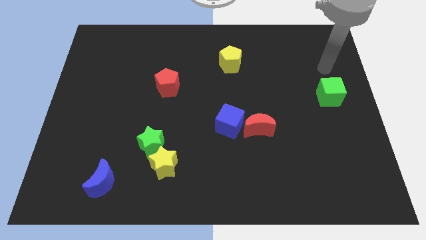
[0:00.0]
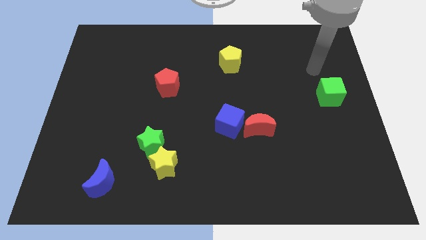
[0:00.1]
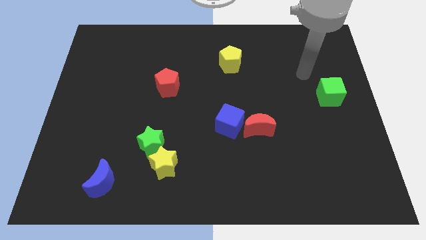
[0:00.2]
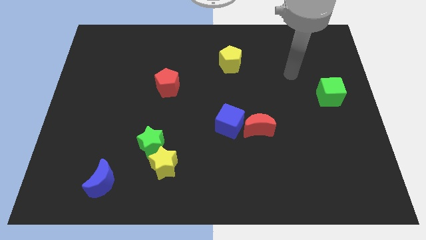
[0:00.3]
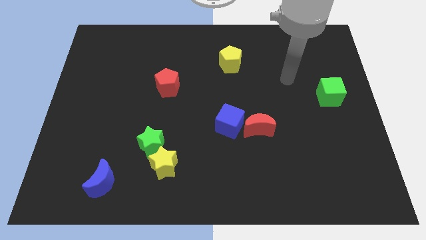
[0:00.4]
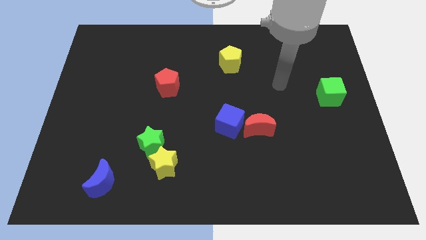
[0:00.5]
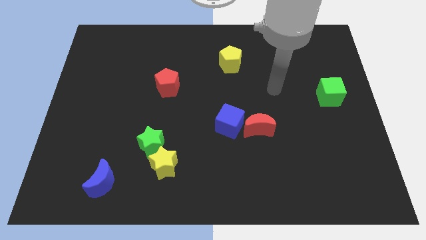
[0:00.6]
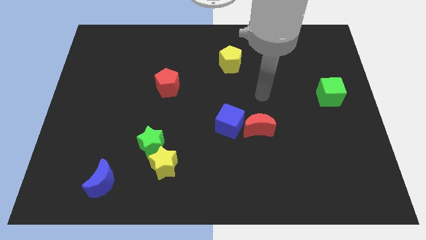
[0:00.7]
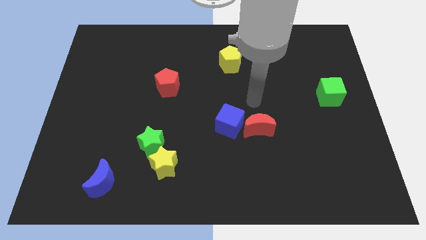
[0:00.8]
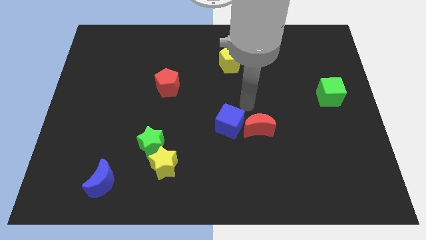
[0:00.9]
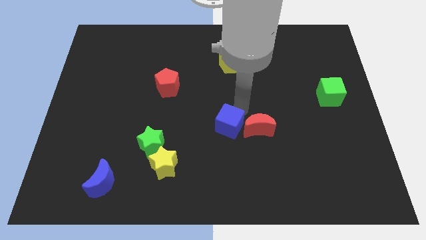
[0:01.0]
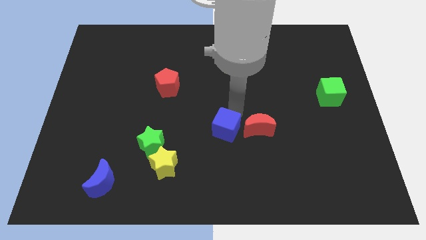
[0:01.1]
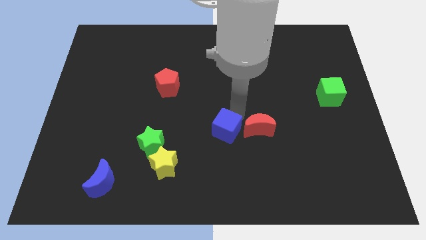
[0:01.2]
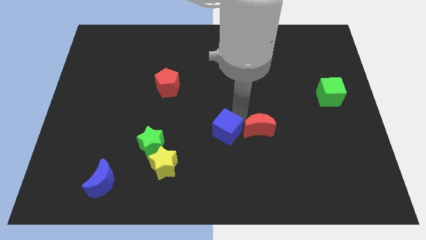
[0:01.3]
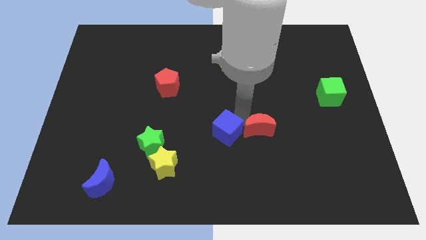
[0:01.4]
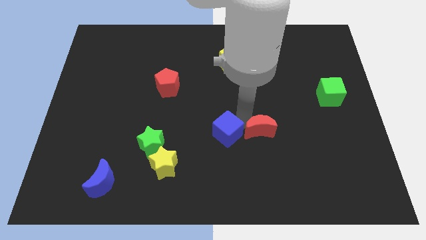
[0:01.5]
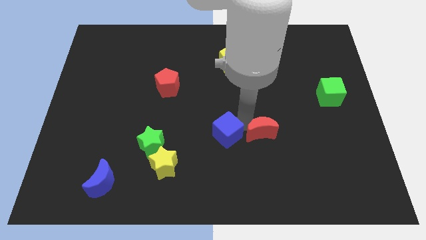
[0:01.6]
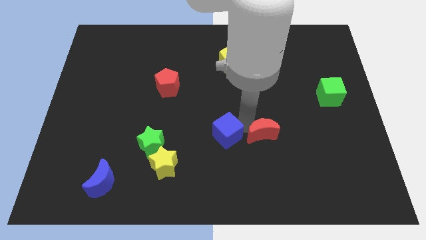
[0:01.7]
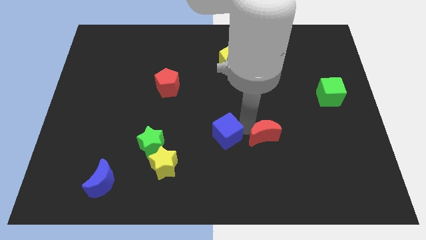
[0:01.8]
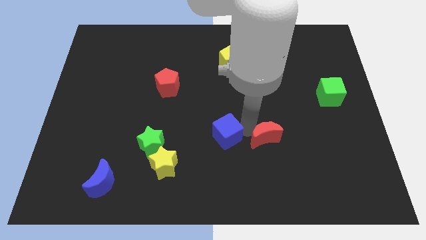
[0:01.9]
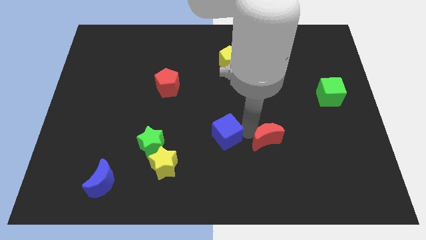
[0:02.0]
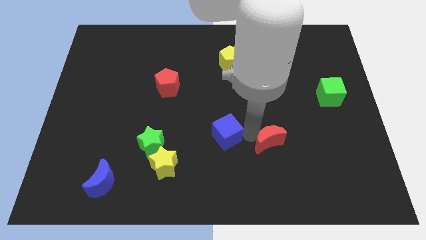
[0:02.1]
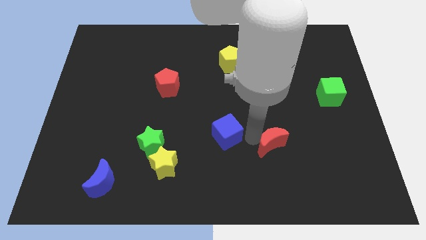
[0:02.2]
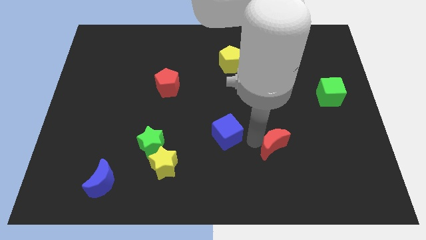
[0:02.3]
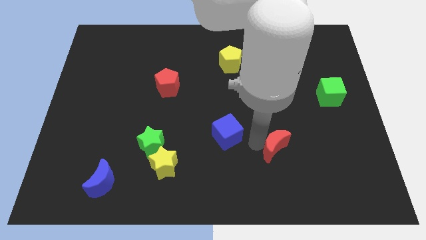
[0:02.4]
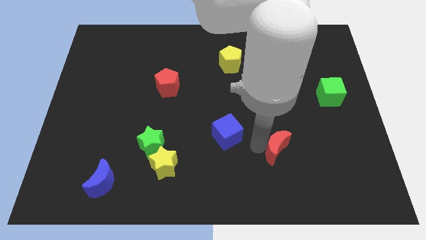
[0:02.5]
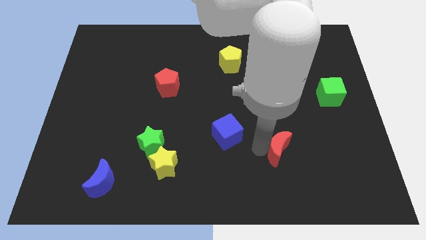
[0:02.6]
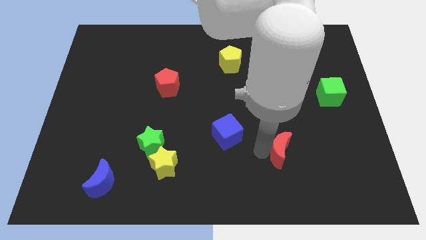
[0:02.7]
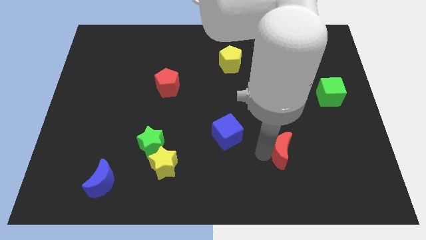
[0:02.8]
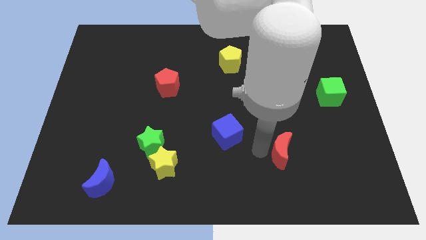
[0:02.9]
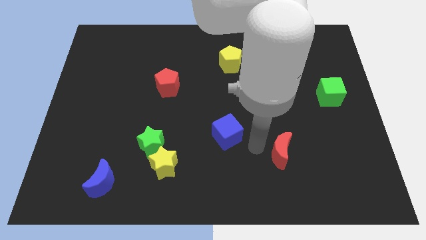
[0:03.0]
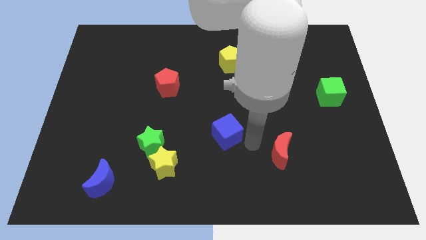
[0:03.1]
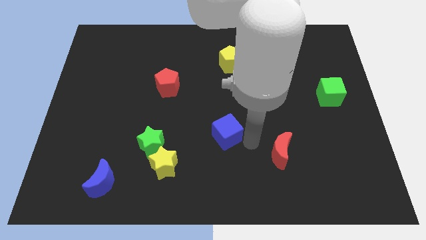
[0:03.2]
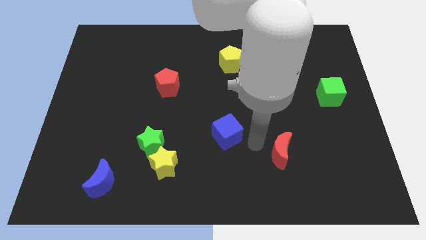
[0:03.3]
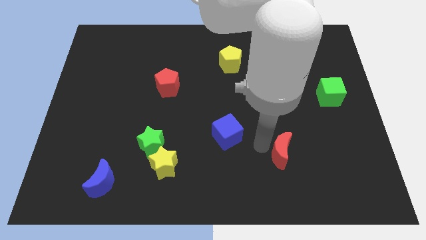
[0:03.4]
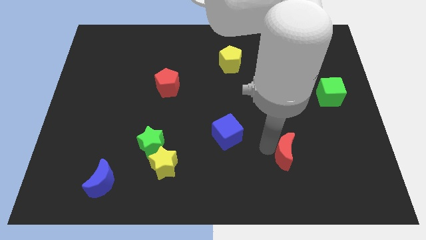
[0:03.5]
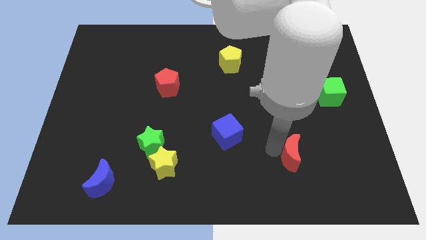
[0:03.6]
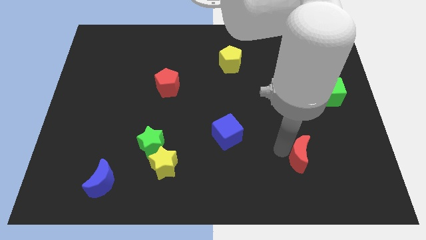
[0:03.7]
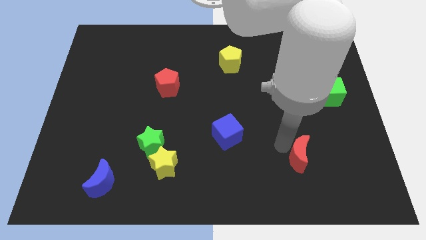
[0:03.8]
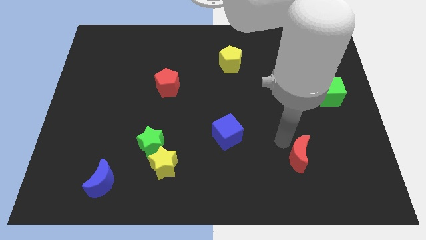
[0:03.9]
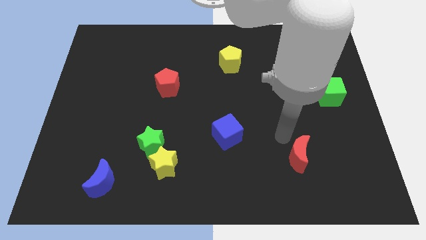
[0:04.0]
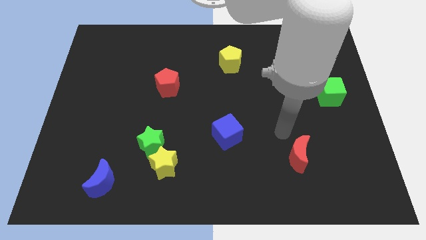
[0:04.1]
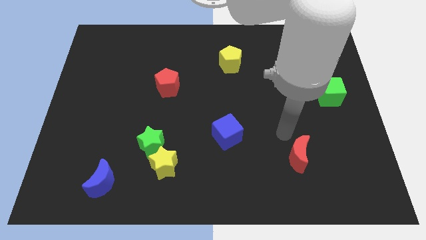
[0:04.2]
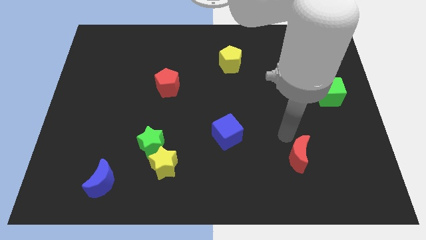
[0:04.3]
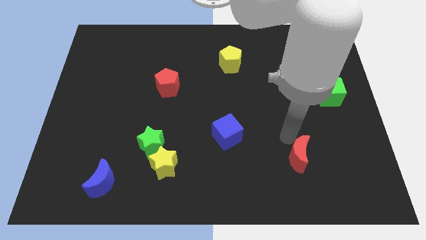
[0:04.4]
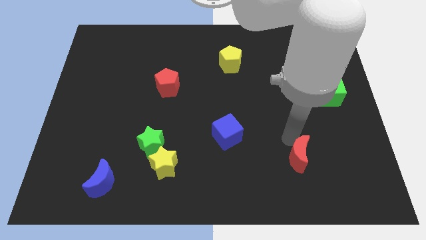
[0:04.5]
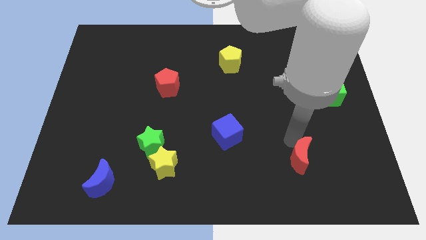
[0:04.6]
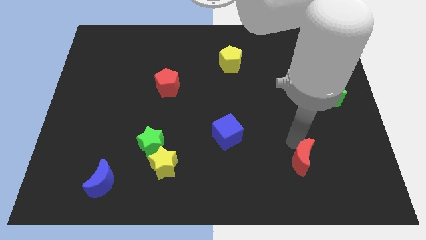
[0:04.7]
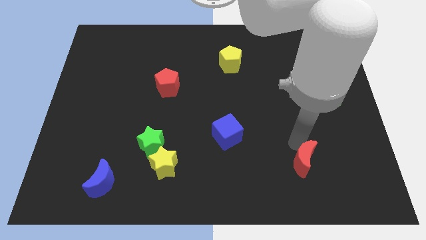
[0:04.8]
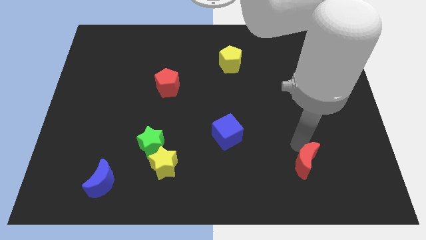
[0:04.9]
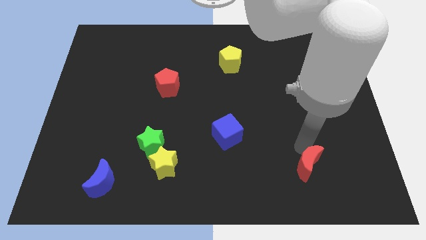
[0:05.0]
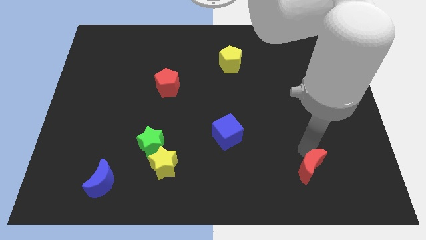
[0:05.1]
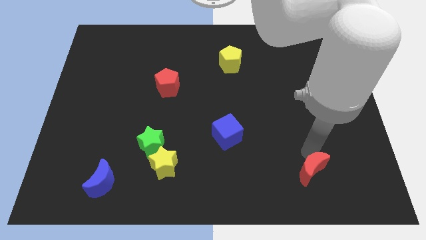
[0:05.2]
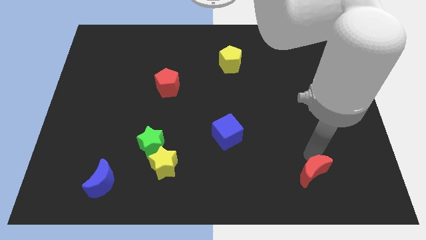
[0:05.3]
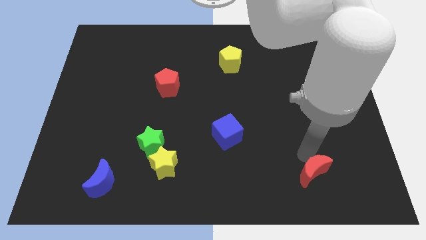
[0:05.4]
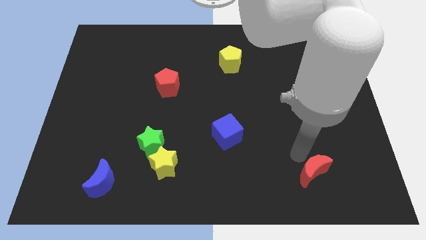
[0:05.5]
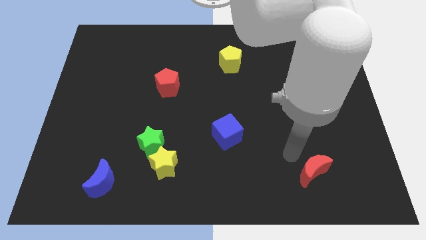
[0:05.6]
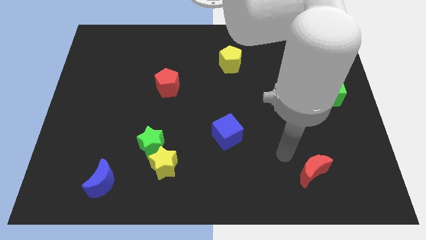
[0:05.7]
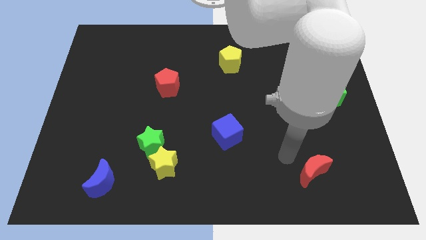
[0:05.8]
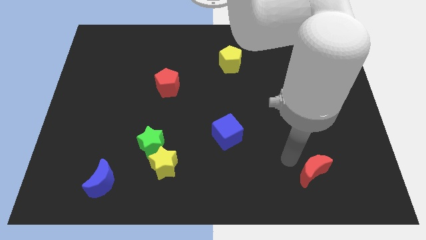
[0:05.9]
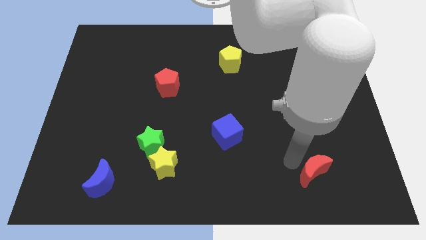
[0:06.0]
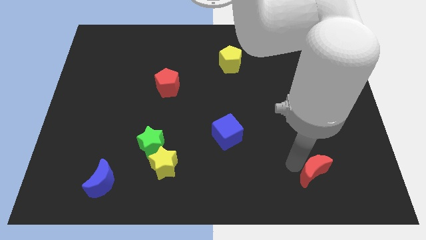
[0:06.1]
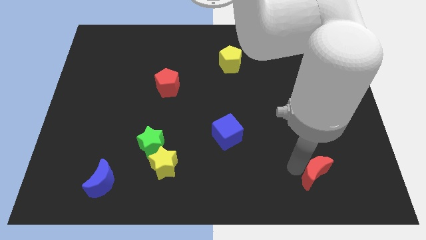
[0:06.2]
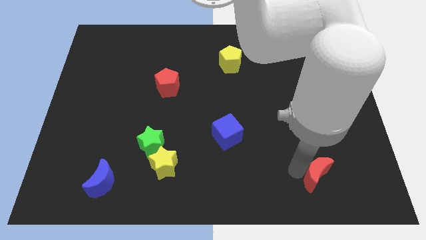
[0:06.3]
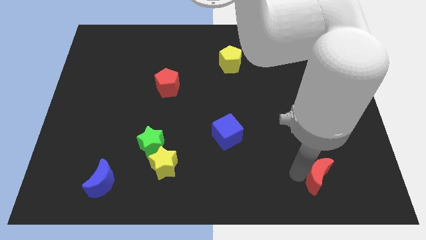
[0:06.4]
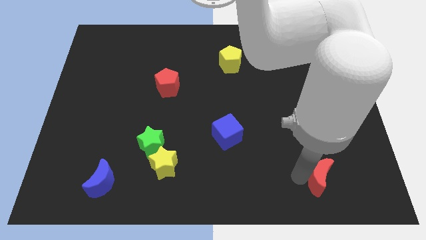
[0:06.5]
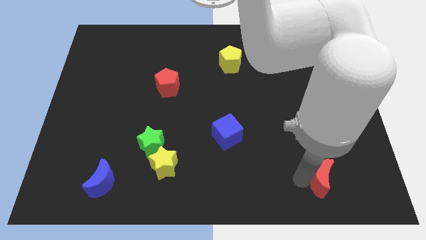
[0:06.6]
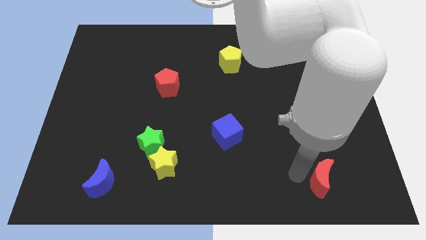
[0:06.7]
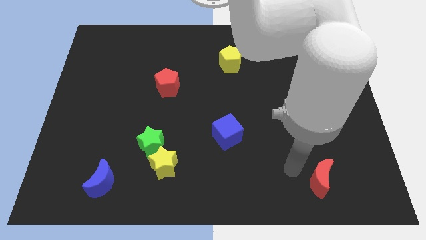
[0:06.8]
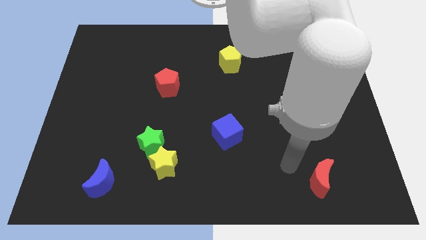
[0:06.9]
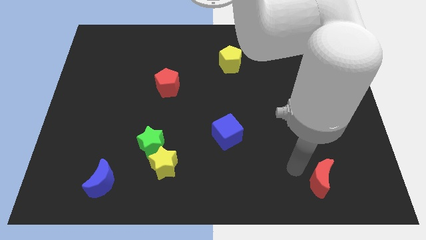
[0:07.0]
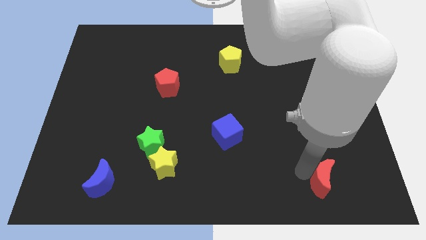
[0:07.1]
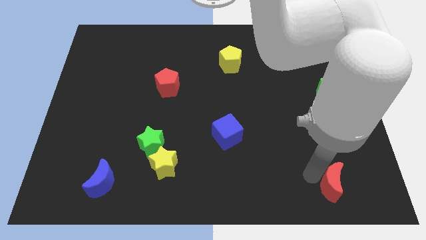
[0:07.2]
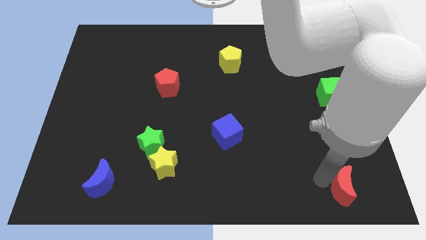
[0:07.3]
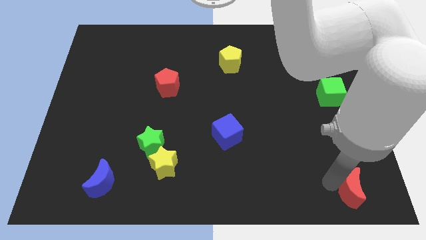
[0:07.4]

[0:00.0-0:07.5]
put the red moon to the bottom right of the board
